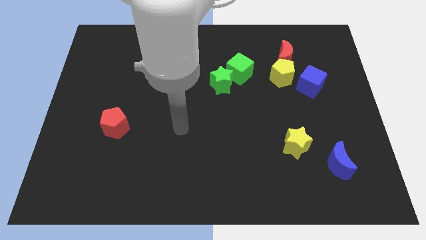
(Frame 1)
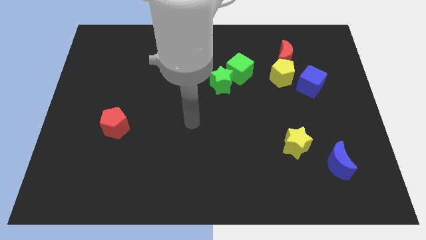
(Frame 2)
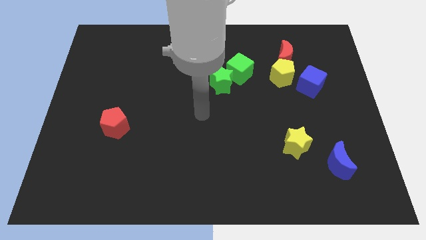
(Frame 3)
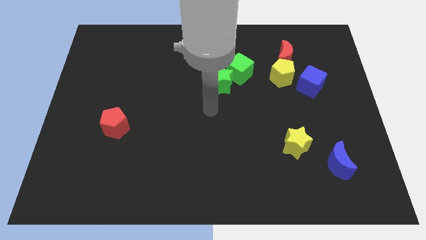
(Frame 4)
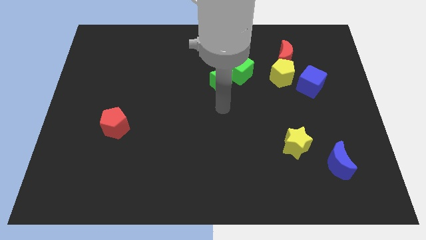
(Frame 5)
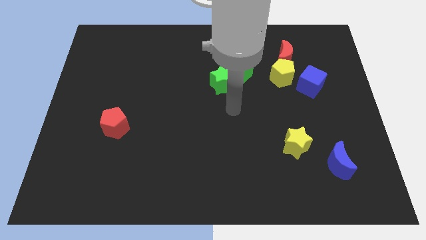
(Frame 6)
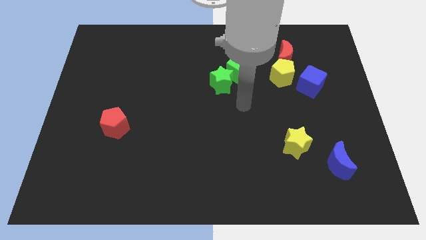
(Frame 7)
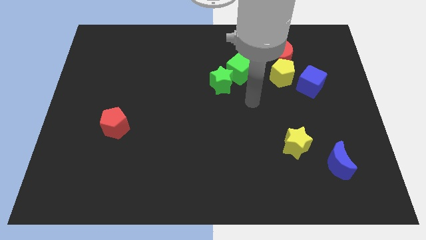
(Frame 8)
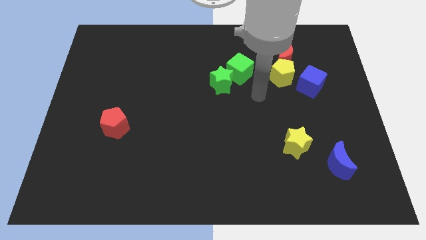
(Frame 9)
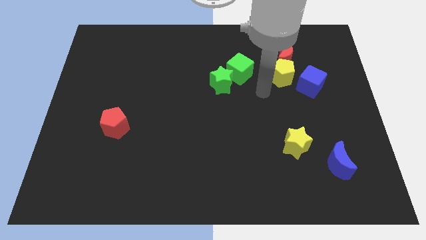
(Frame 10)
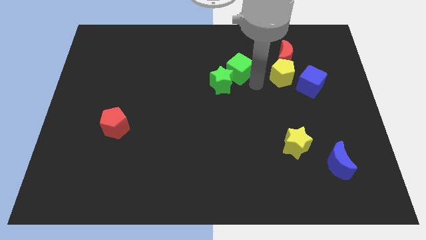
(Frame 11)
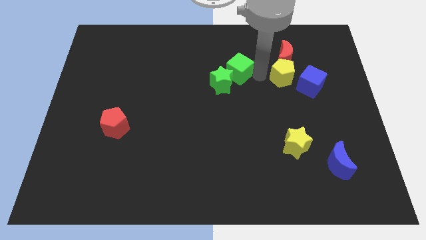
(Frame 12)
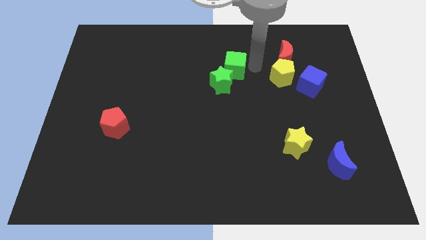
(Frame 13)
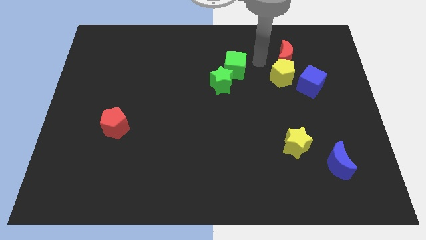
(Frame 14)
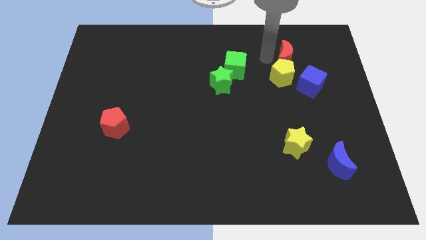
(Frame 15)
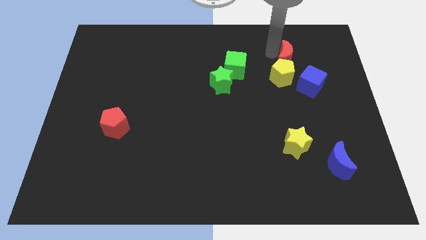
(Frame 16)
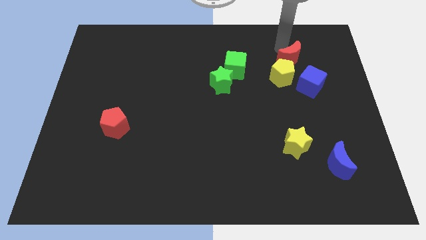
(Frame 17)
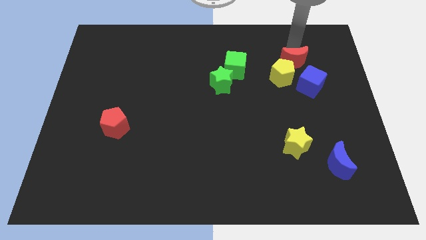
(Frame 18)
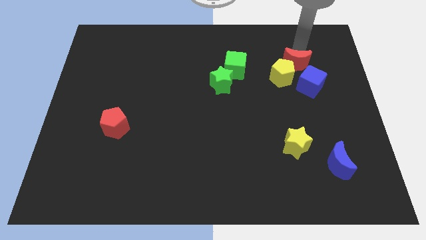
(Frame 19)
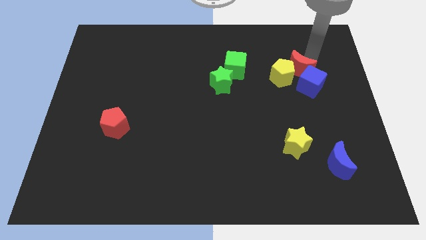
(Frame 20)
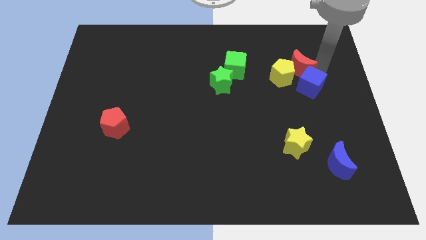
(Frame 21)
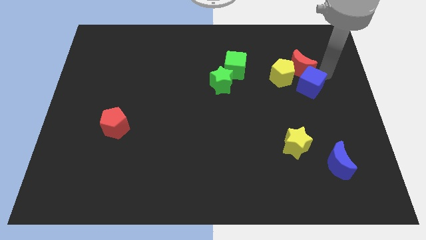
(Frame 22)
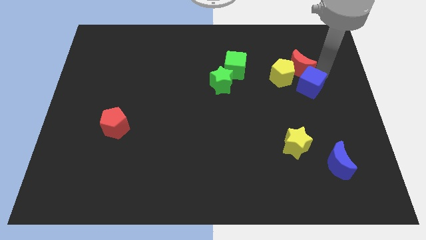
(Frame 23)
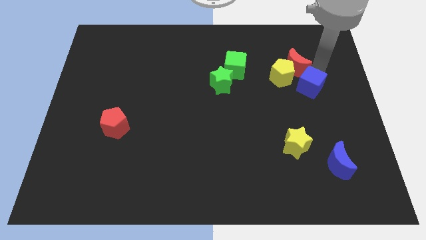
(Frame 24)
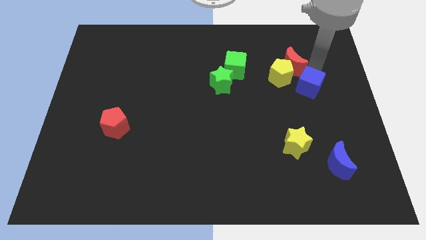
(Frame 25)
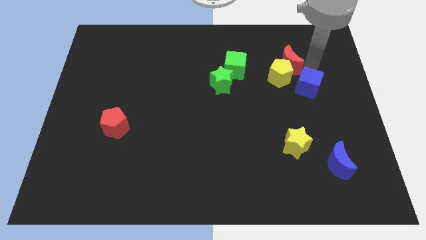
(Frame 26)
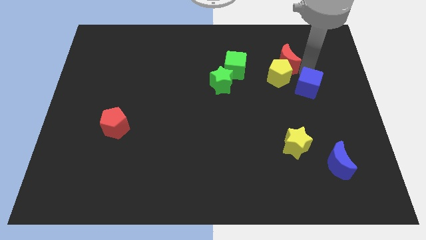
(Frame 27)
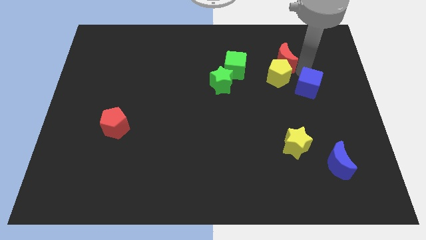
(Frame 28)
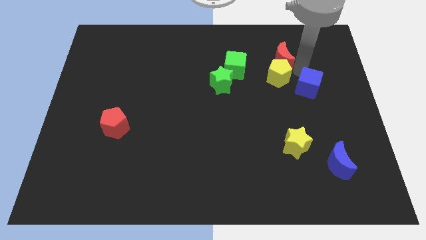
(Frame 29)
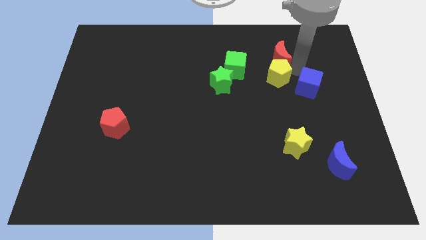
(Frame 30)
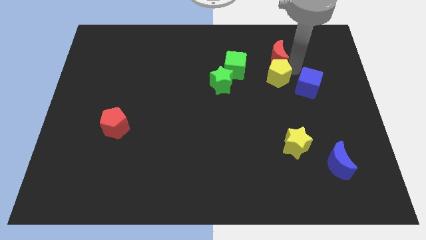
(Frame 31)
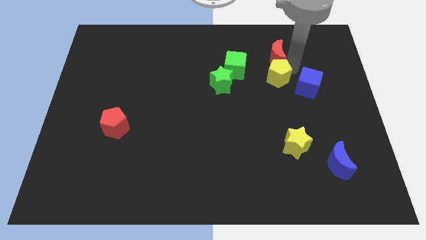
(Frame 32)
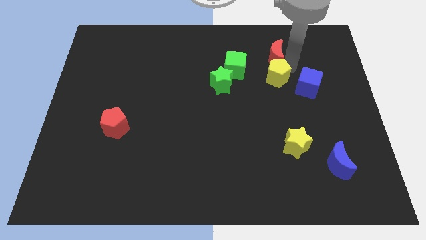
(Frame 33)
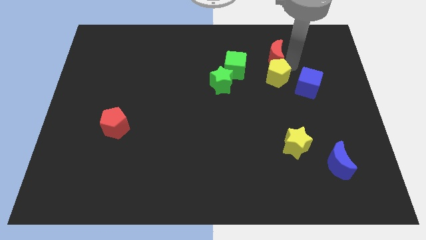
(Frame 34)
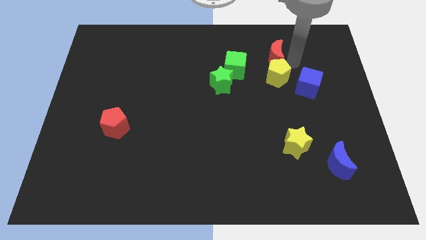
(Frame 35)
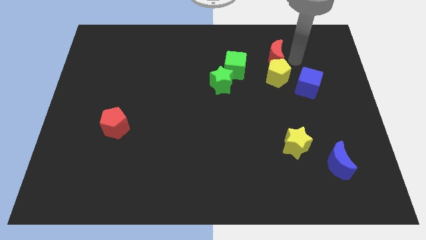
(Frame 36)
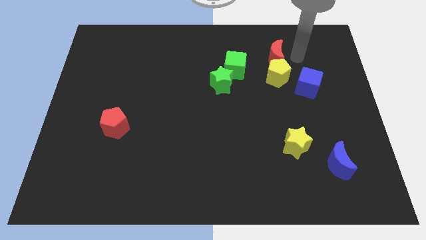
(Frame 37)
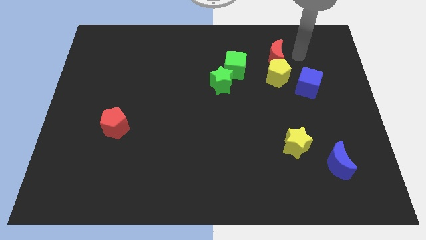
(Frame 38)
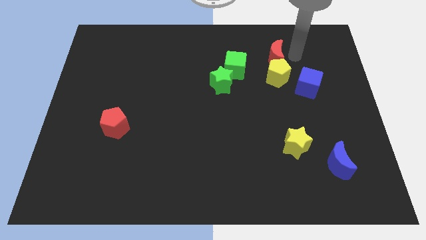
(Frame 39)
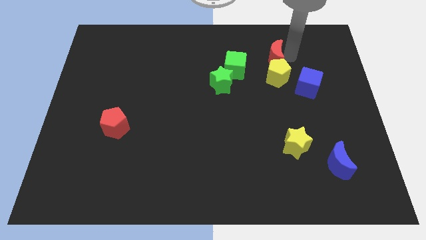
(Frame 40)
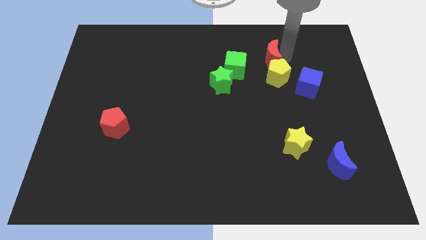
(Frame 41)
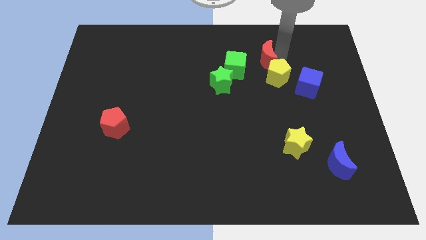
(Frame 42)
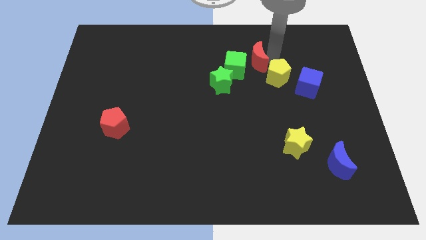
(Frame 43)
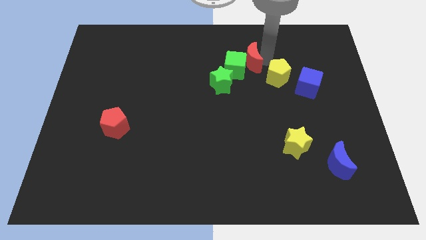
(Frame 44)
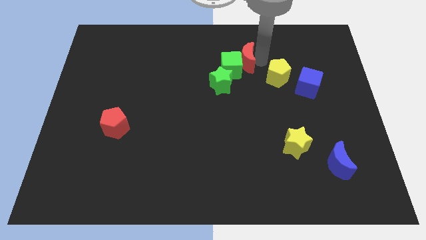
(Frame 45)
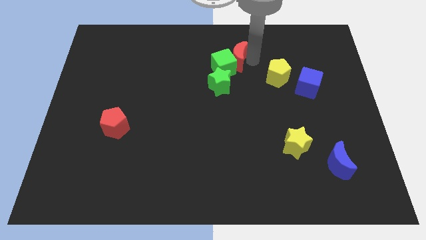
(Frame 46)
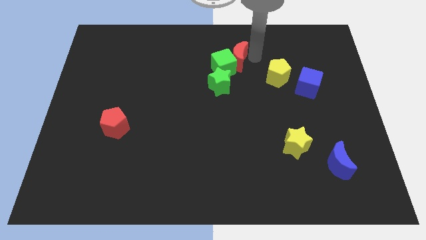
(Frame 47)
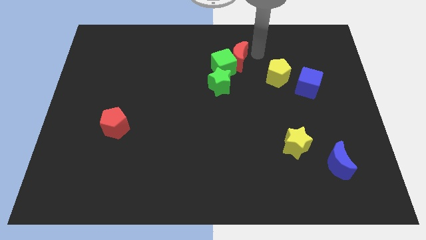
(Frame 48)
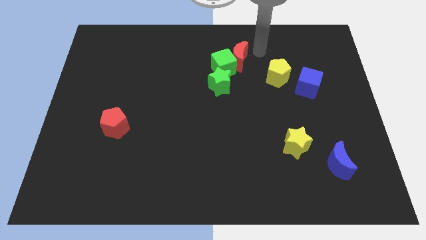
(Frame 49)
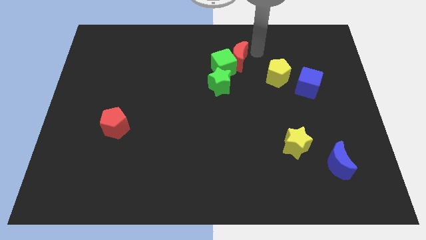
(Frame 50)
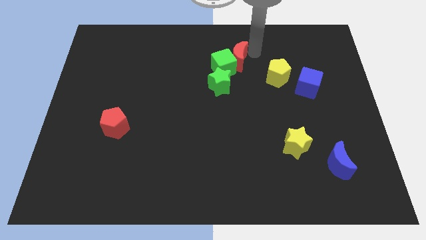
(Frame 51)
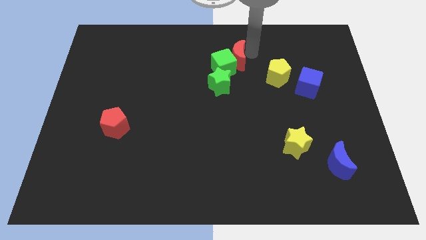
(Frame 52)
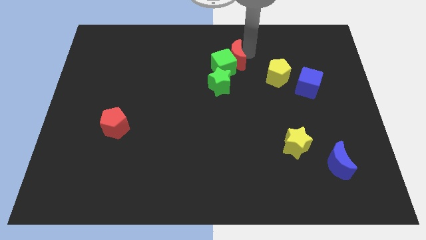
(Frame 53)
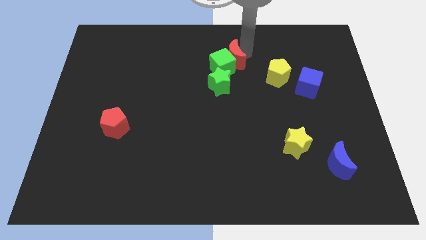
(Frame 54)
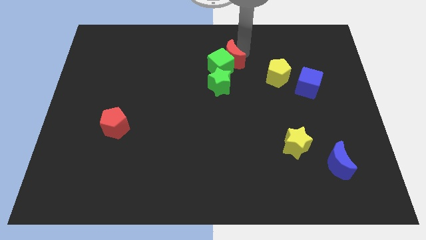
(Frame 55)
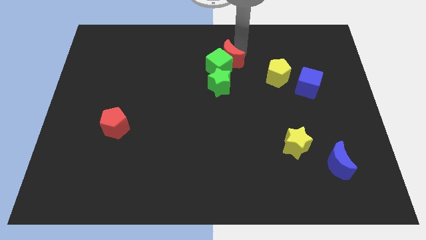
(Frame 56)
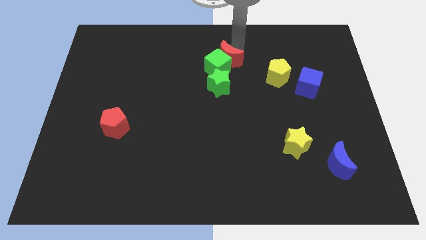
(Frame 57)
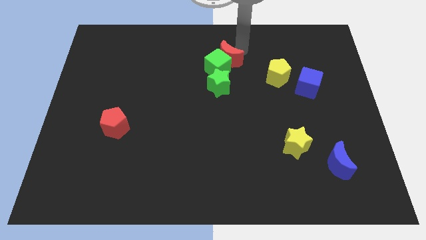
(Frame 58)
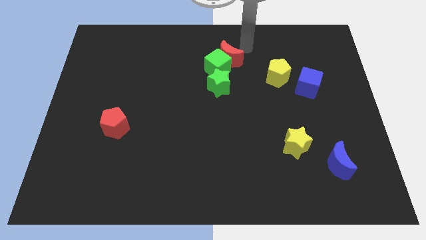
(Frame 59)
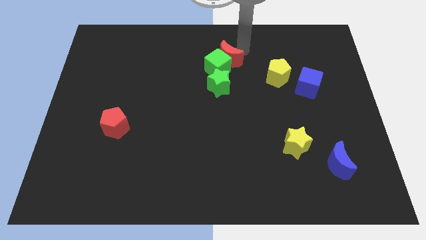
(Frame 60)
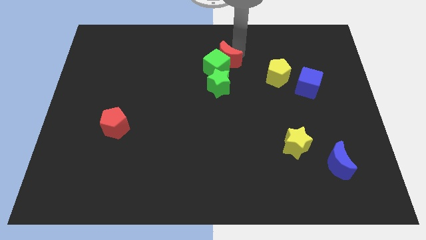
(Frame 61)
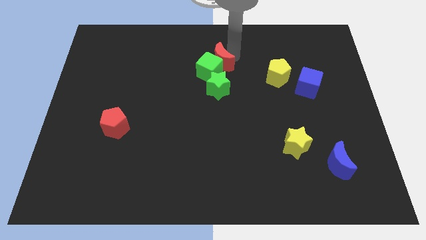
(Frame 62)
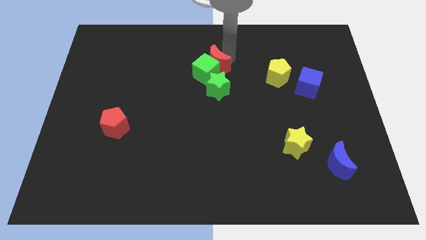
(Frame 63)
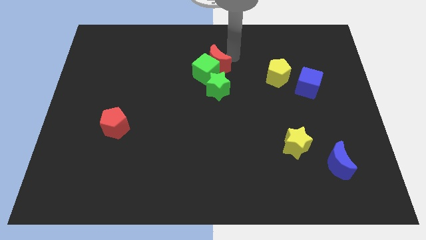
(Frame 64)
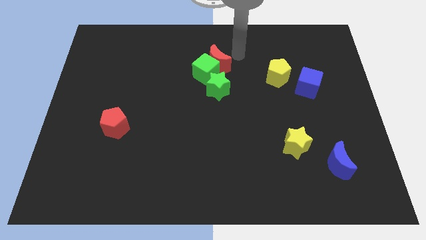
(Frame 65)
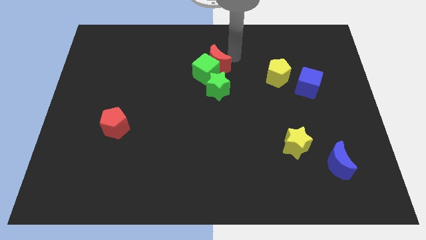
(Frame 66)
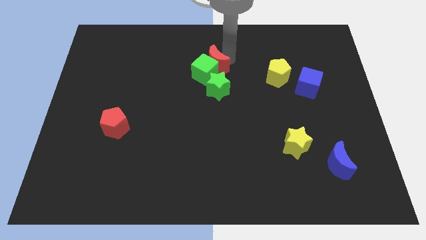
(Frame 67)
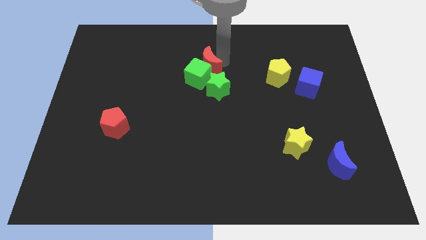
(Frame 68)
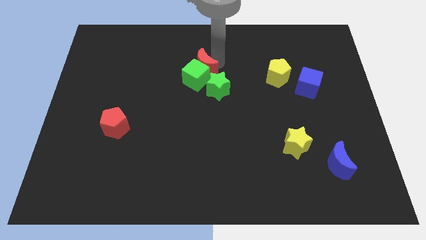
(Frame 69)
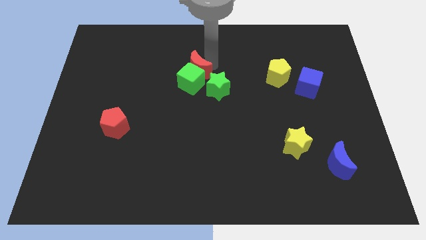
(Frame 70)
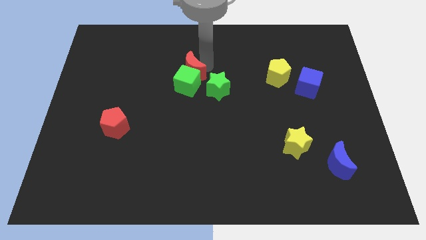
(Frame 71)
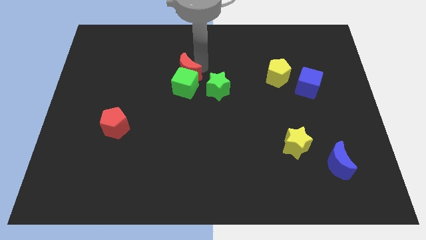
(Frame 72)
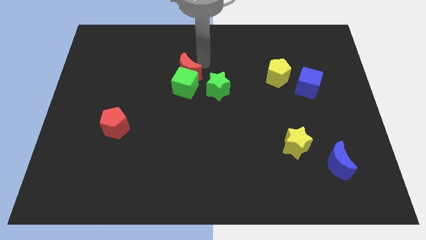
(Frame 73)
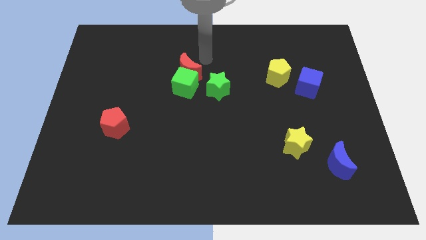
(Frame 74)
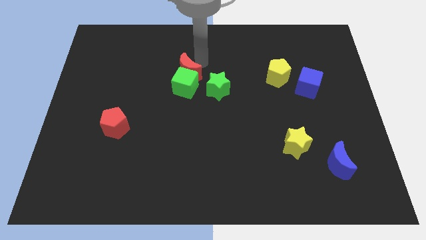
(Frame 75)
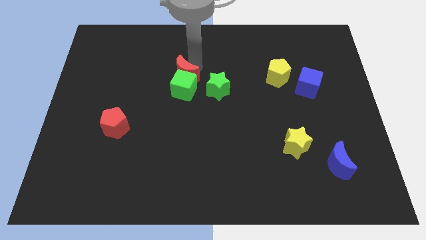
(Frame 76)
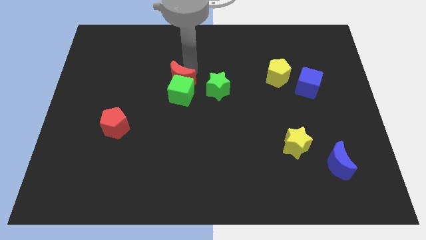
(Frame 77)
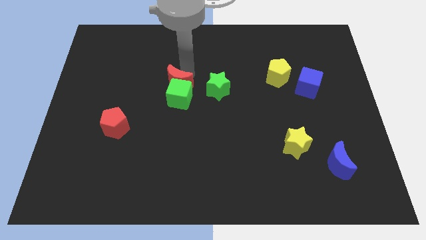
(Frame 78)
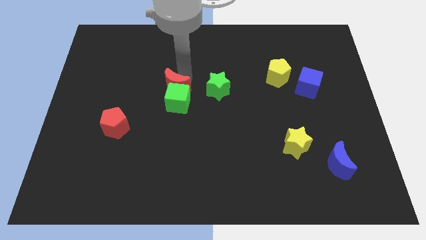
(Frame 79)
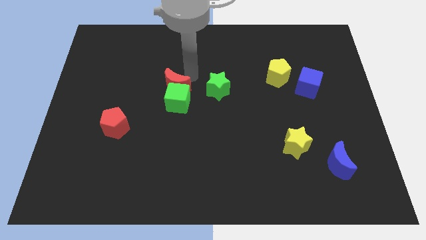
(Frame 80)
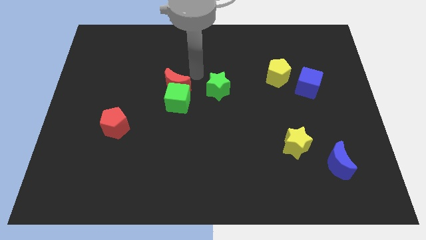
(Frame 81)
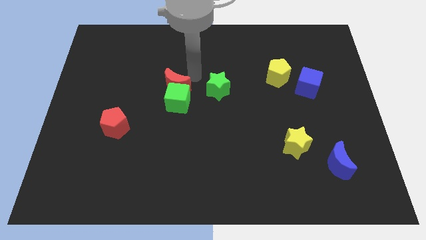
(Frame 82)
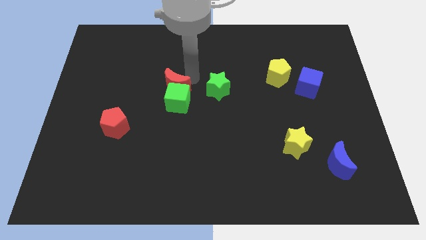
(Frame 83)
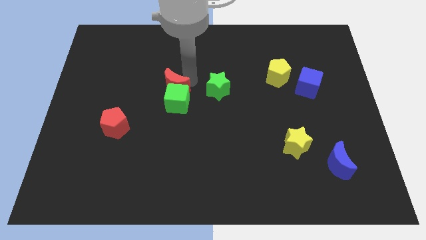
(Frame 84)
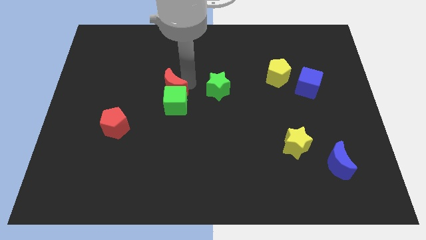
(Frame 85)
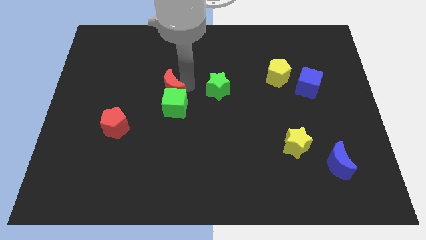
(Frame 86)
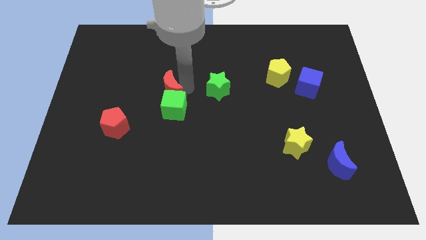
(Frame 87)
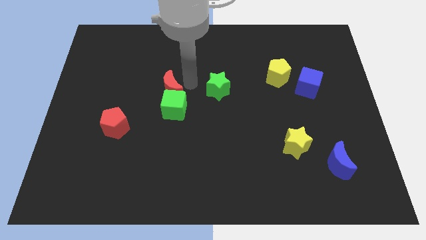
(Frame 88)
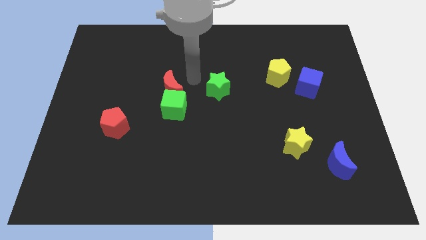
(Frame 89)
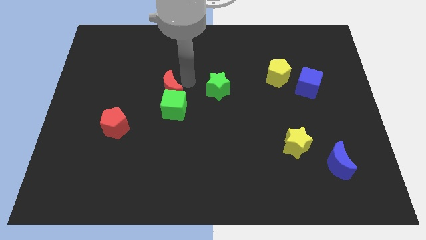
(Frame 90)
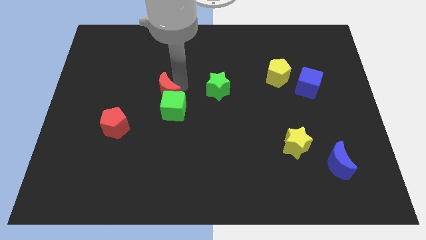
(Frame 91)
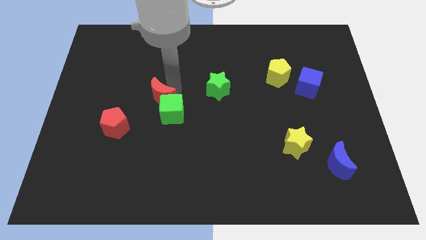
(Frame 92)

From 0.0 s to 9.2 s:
put the red moon to the top right side of the red pentagon
